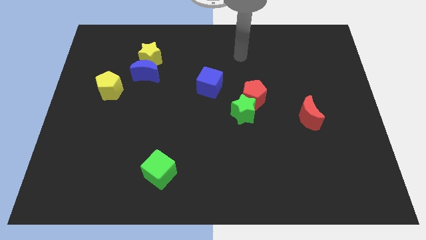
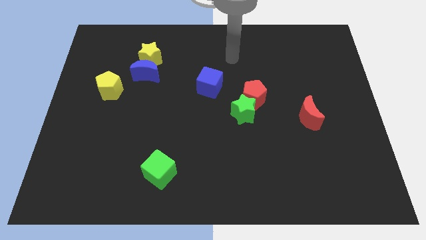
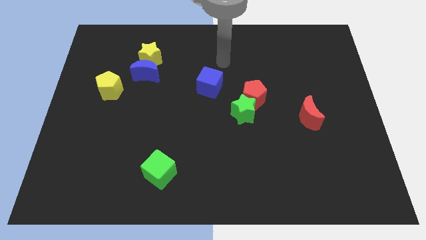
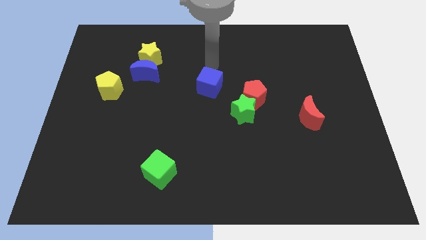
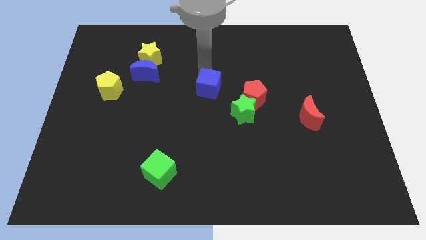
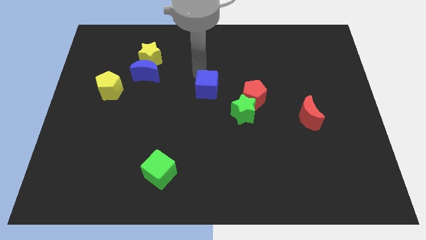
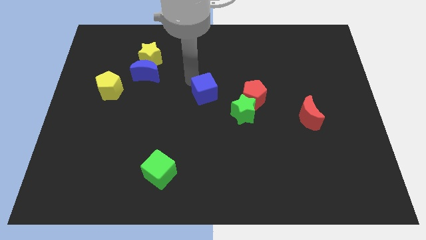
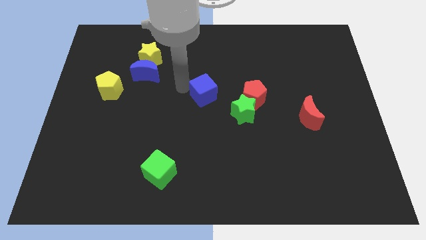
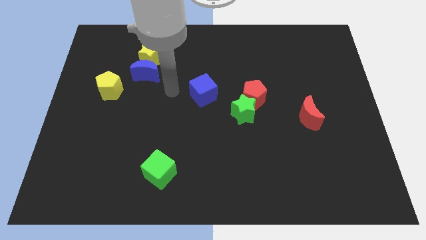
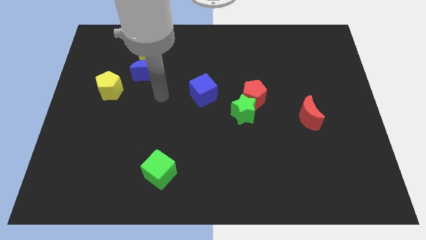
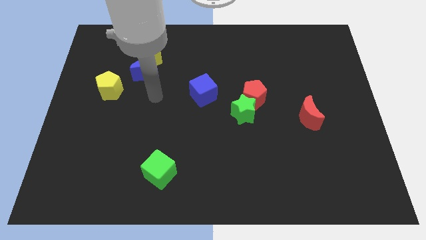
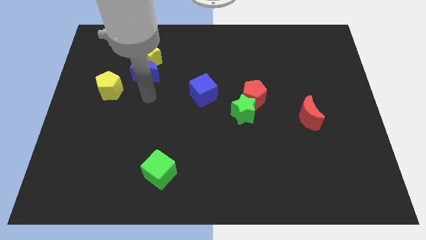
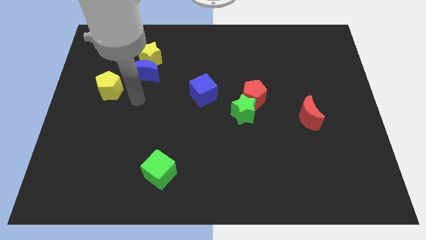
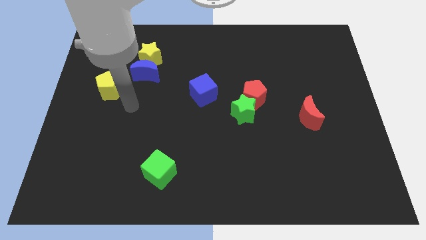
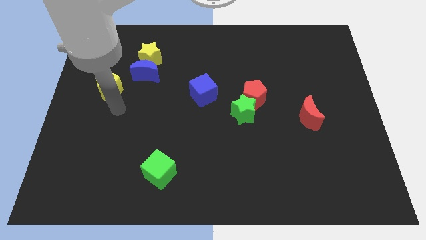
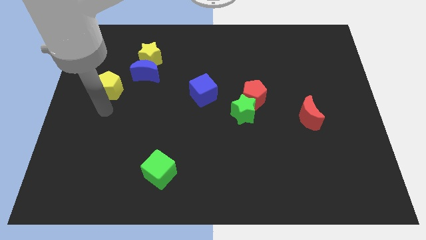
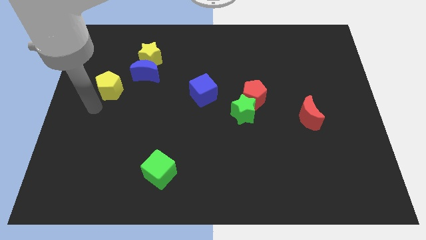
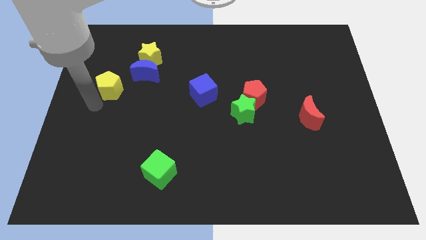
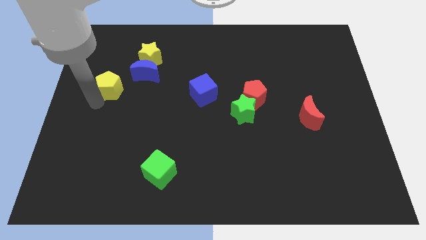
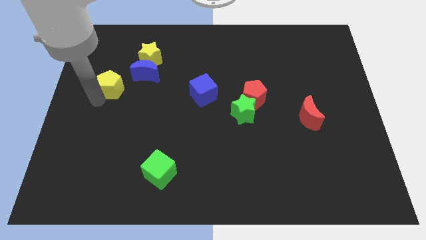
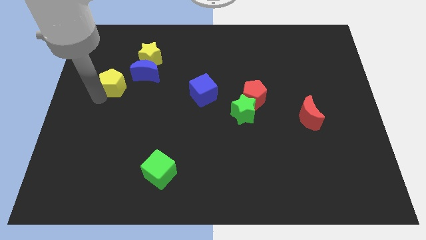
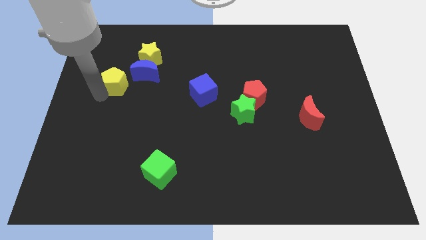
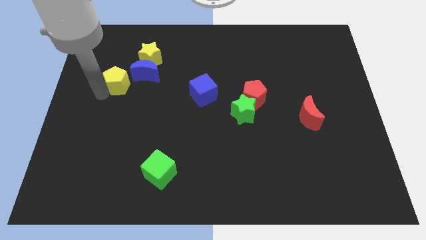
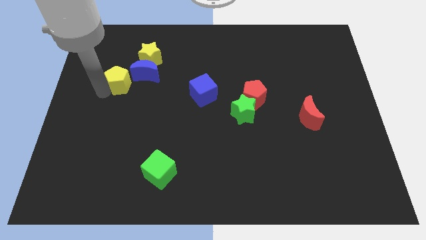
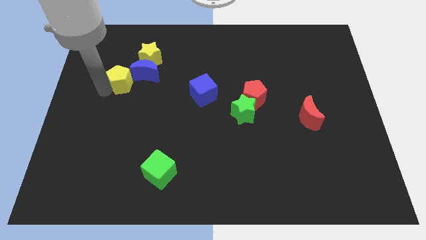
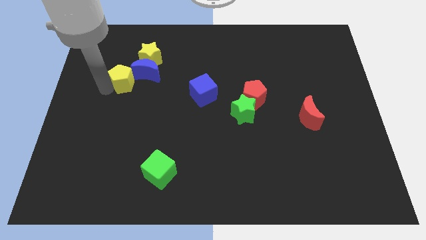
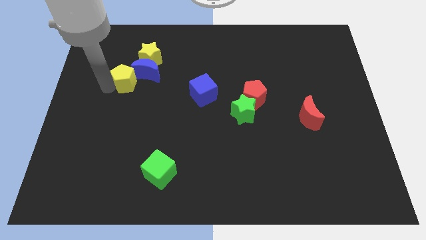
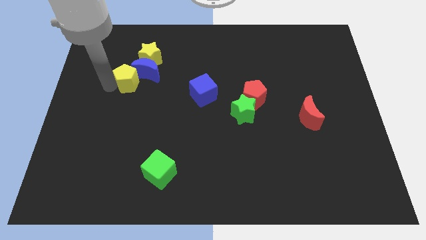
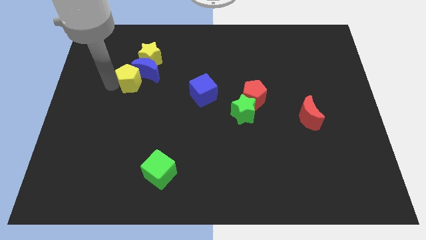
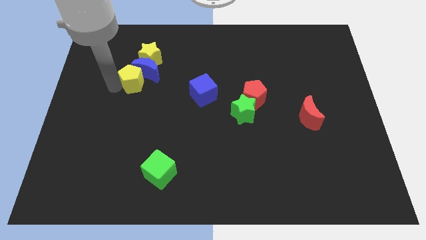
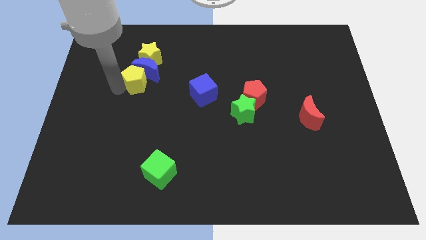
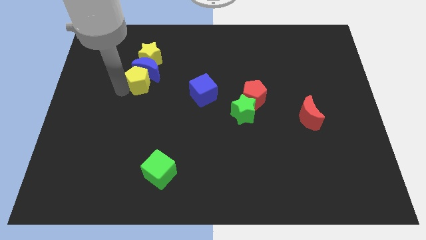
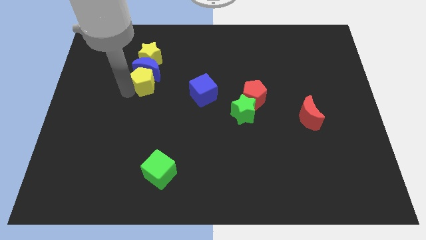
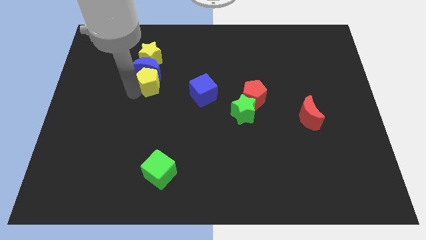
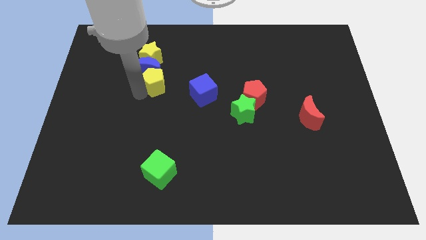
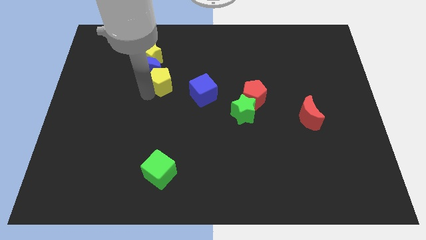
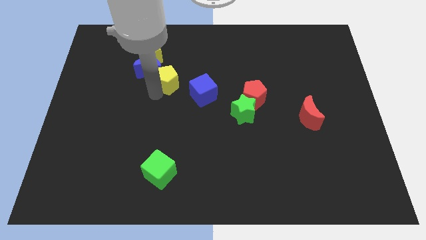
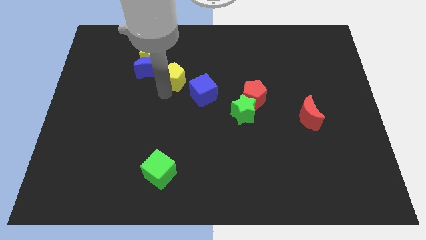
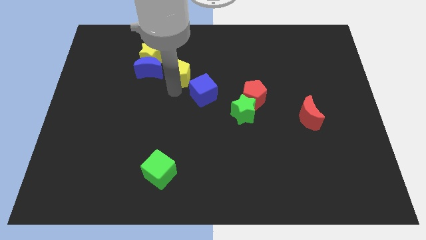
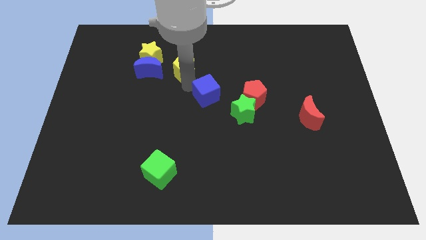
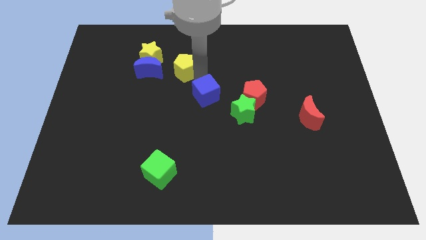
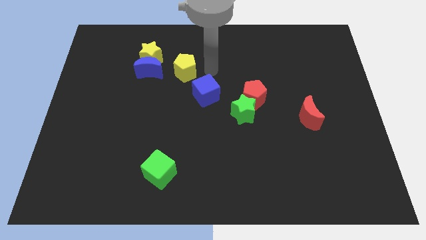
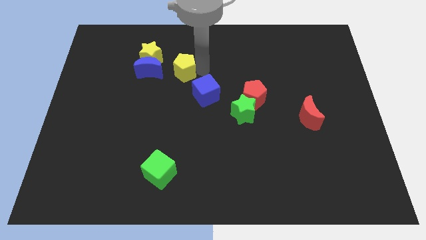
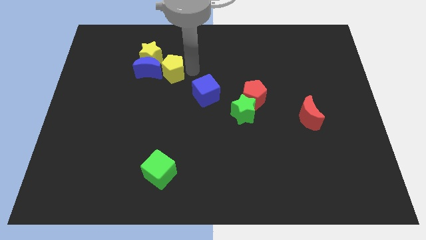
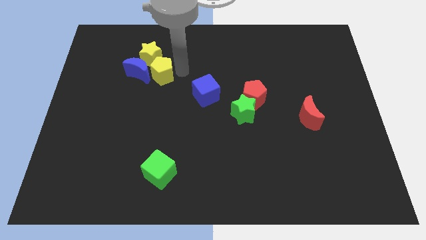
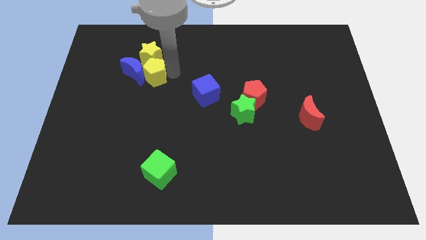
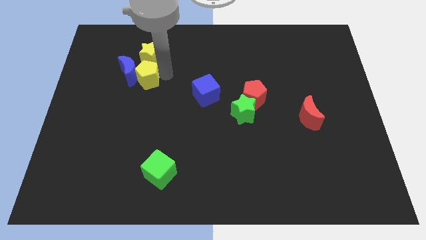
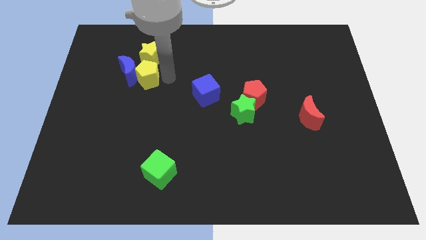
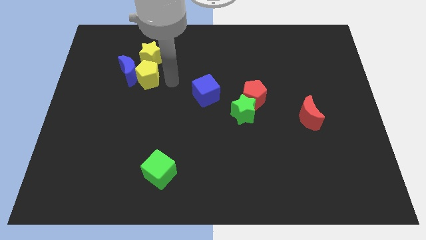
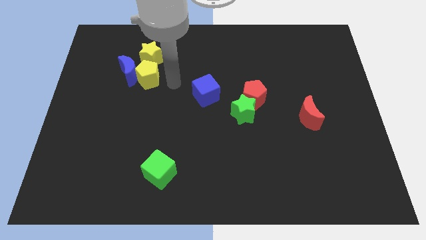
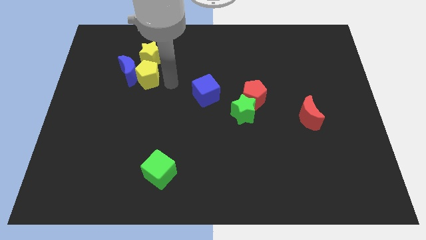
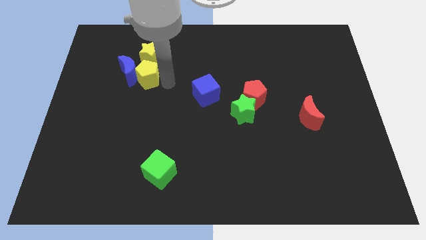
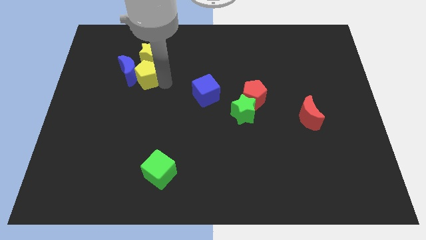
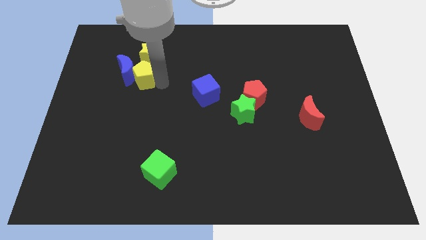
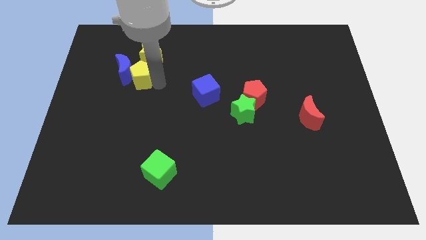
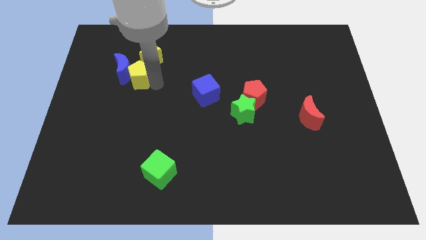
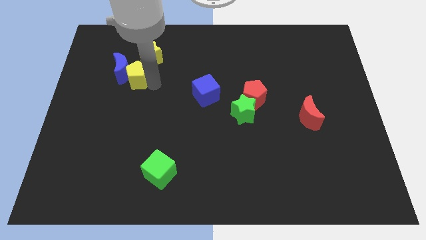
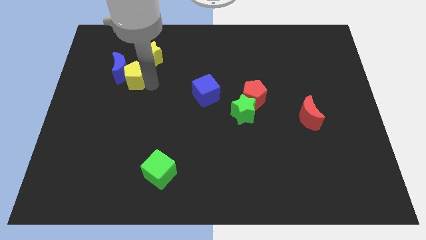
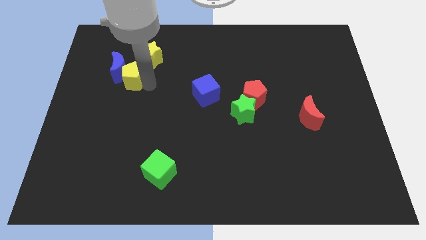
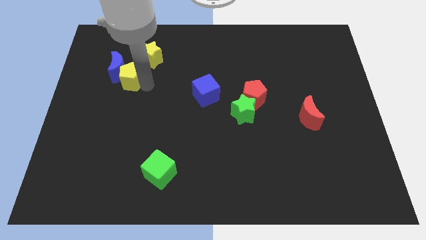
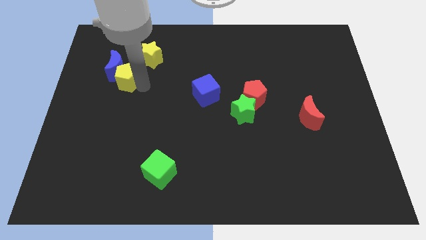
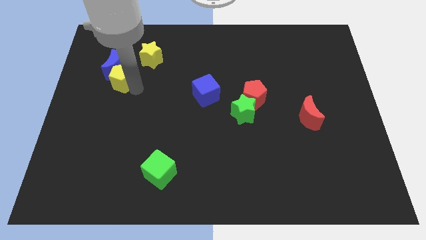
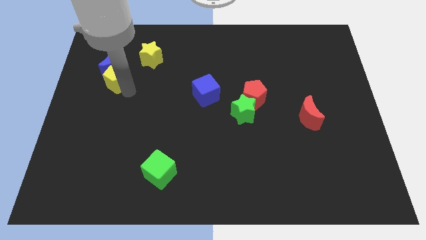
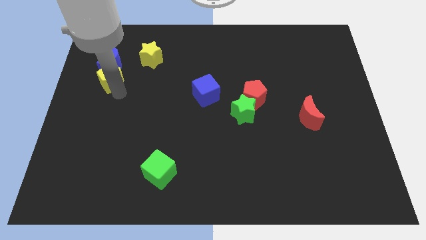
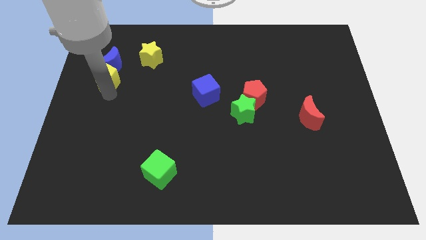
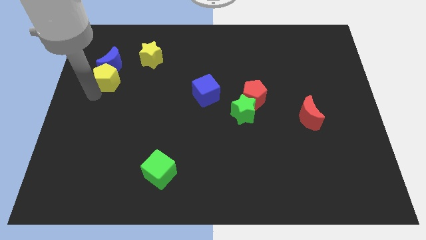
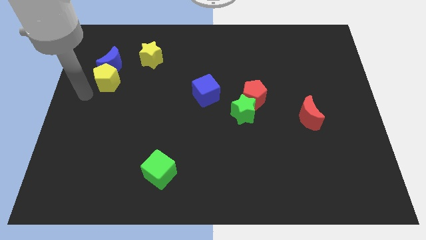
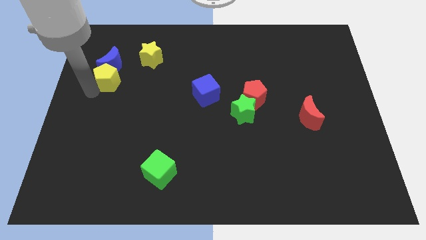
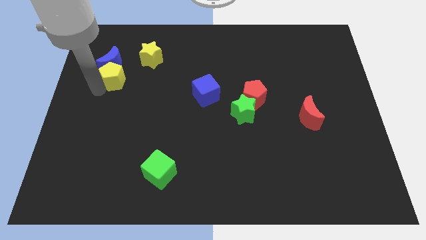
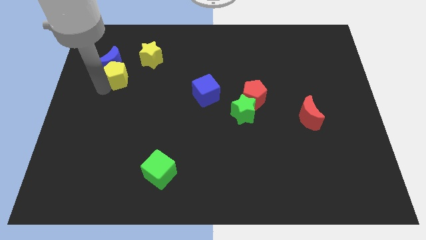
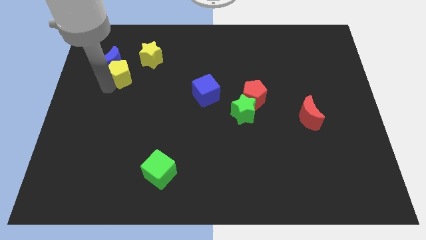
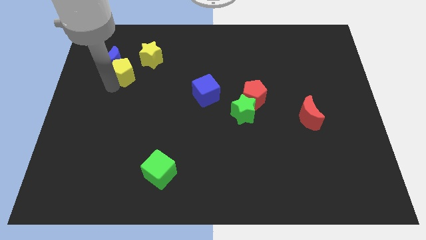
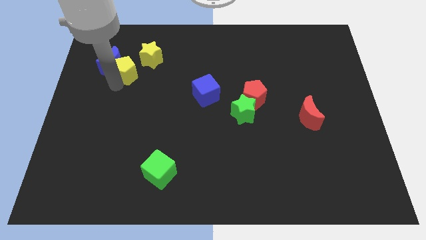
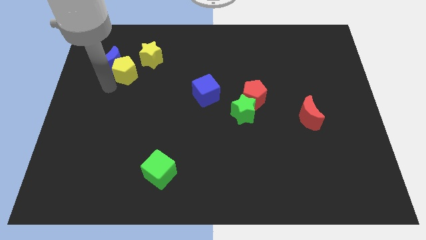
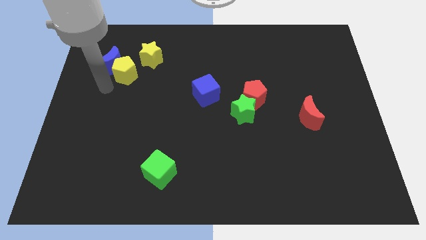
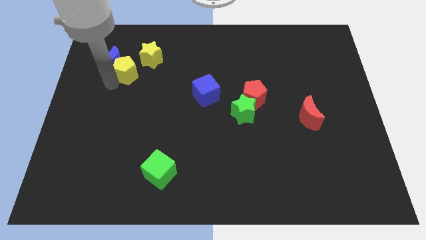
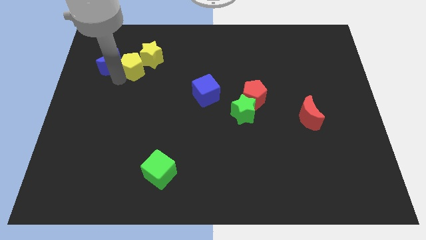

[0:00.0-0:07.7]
push the yellow pentagon to the yellow star
